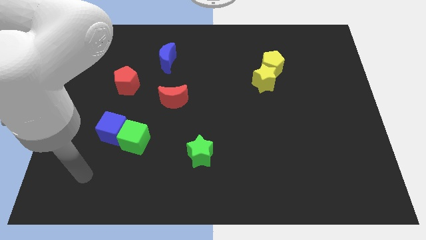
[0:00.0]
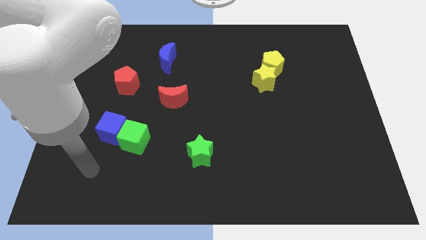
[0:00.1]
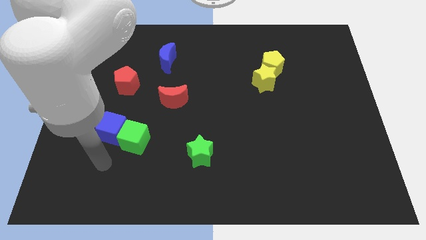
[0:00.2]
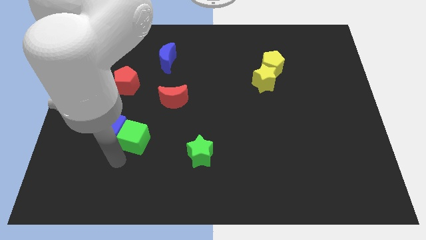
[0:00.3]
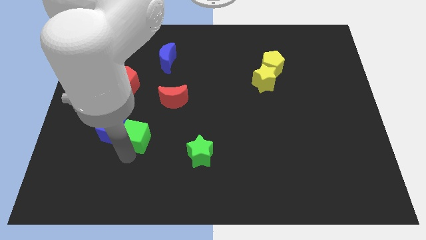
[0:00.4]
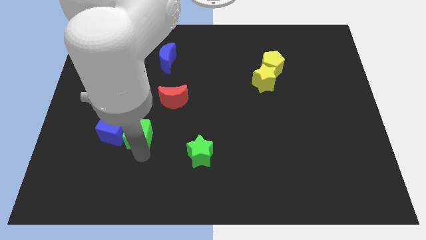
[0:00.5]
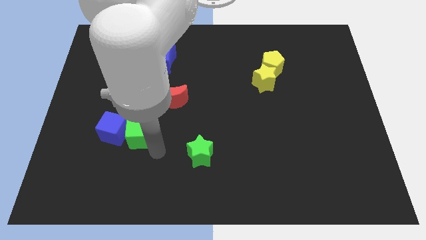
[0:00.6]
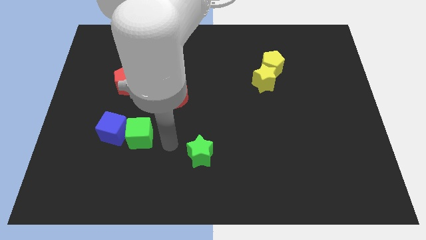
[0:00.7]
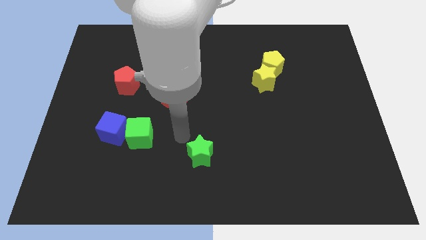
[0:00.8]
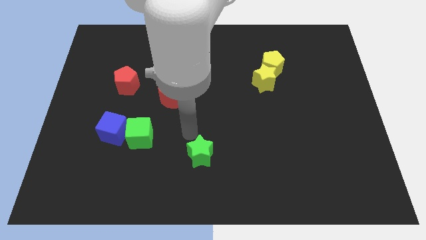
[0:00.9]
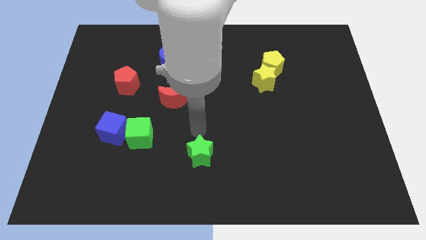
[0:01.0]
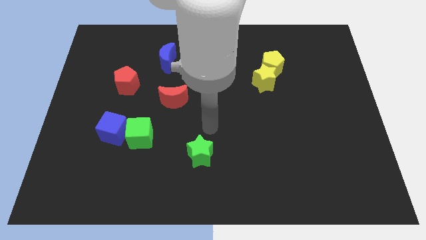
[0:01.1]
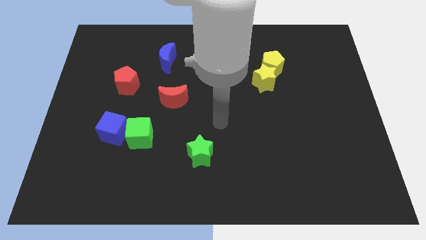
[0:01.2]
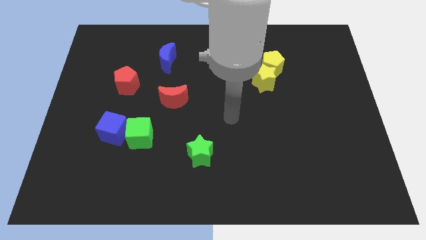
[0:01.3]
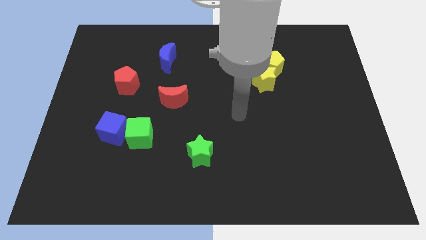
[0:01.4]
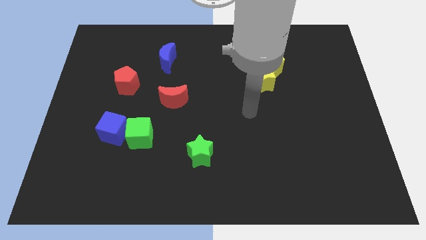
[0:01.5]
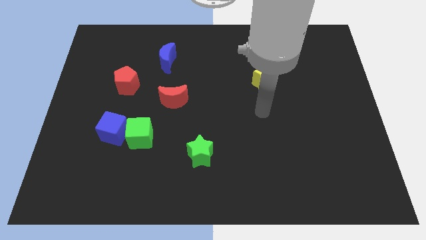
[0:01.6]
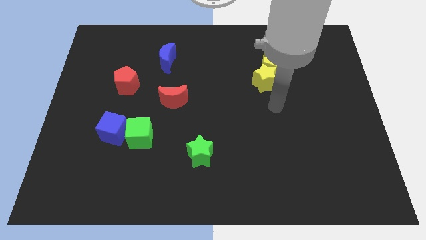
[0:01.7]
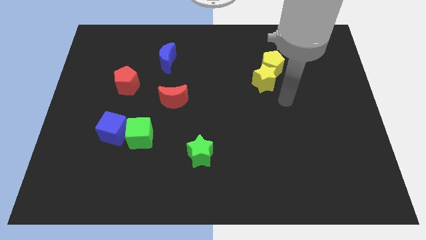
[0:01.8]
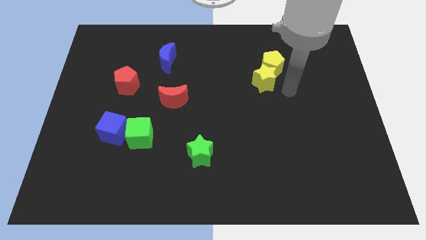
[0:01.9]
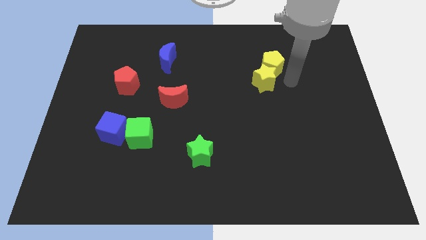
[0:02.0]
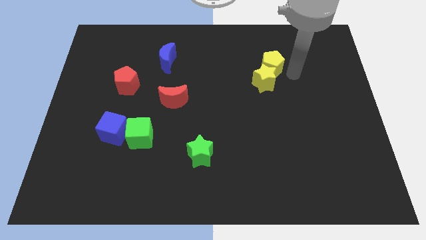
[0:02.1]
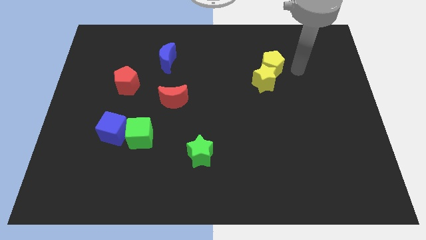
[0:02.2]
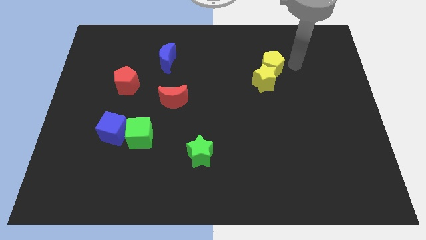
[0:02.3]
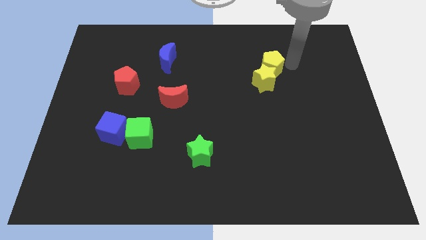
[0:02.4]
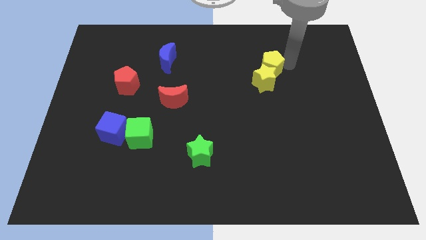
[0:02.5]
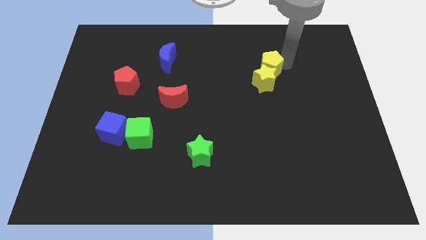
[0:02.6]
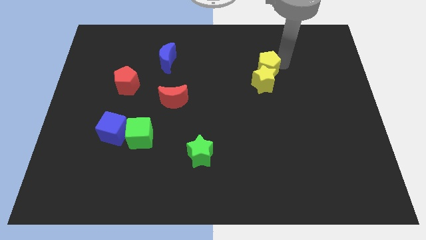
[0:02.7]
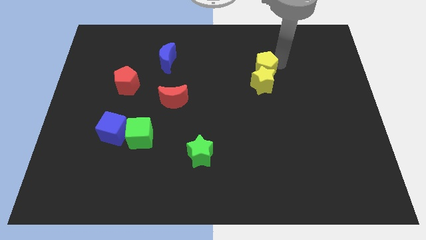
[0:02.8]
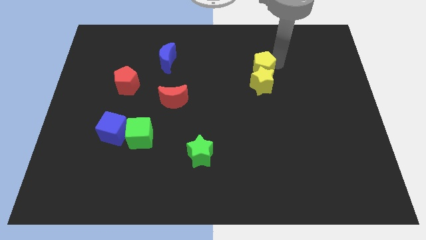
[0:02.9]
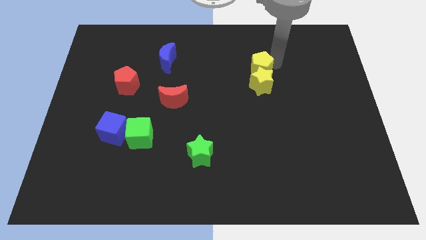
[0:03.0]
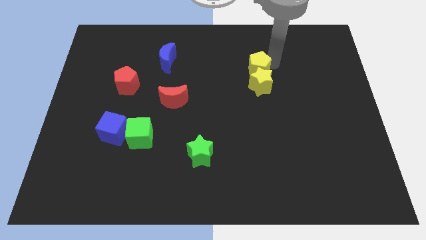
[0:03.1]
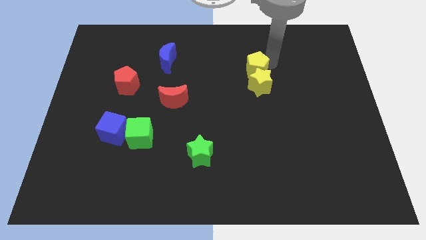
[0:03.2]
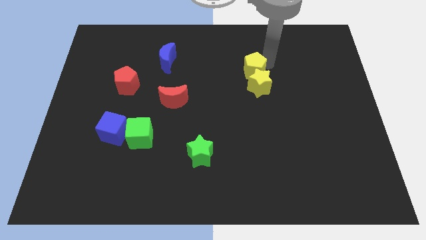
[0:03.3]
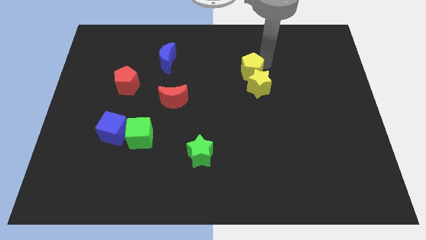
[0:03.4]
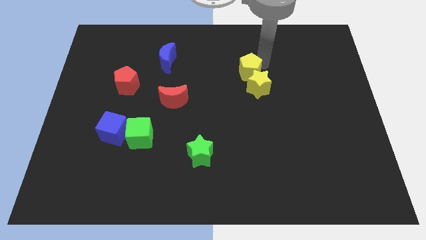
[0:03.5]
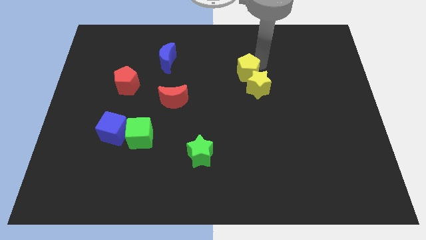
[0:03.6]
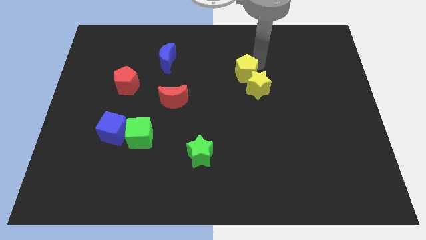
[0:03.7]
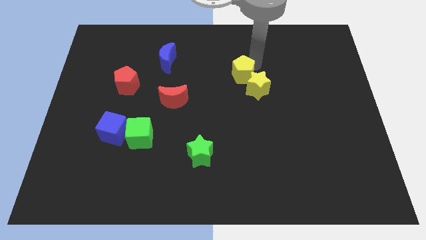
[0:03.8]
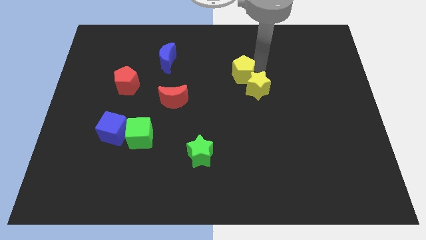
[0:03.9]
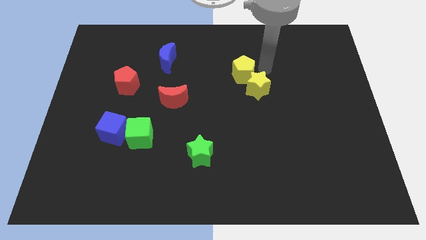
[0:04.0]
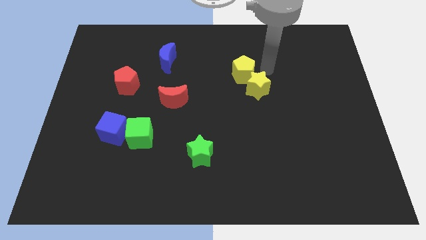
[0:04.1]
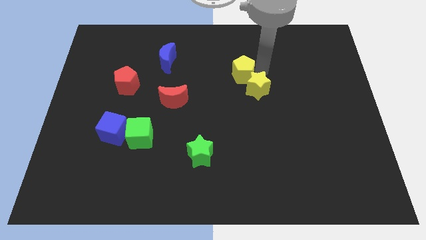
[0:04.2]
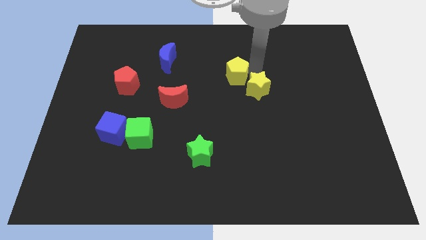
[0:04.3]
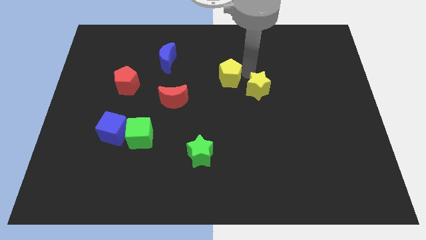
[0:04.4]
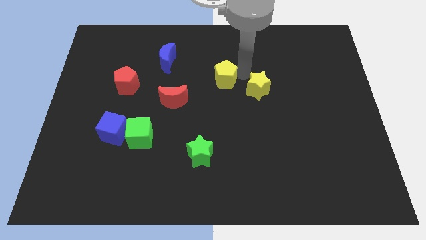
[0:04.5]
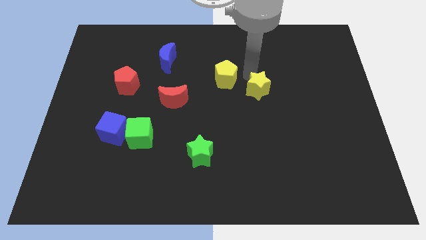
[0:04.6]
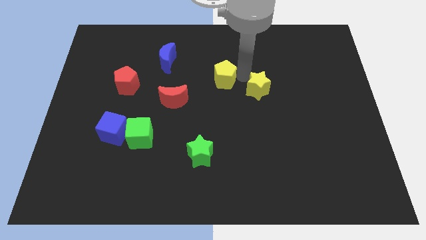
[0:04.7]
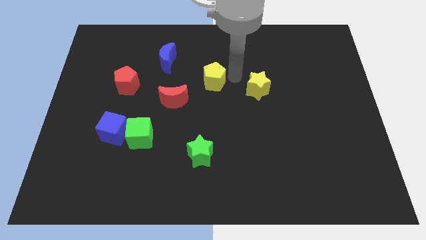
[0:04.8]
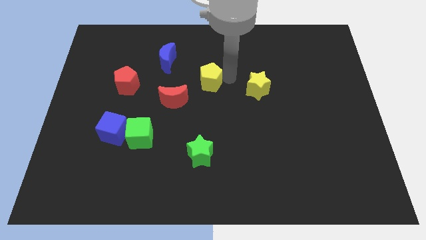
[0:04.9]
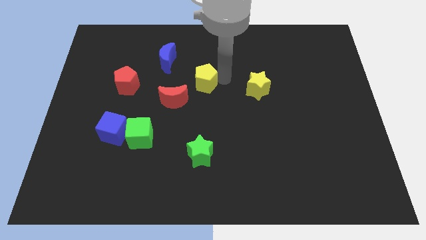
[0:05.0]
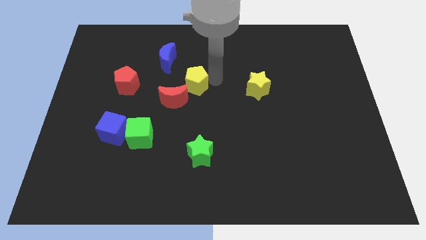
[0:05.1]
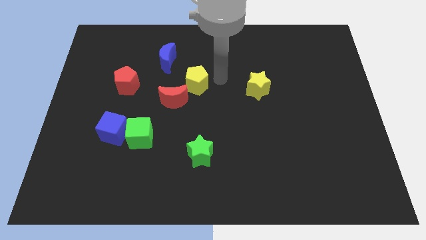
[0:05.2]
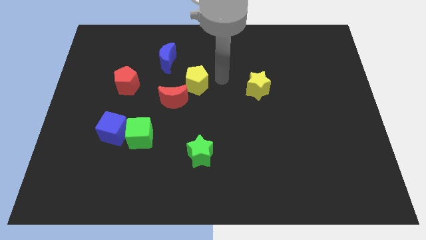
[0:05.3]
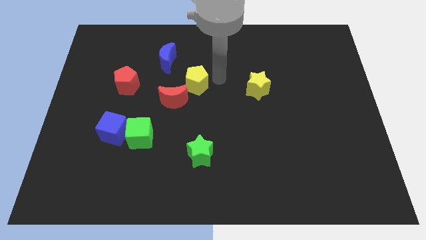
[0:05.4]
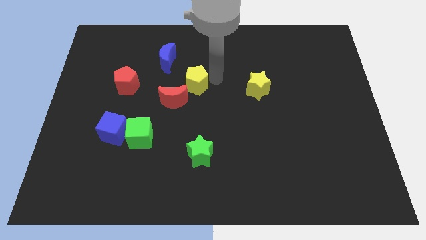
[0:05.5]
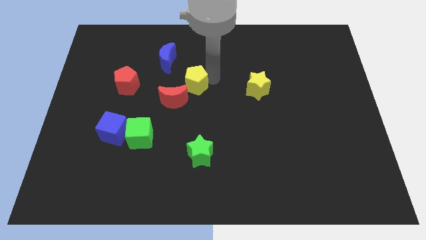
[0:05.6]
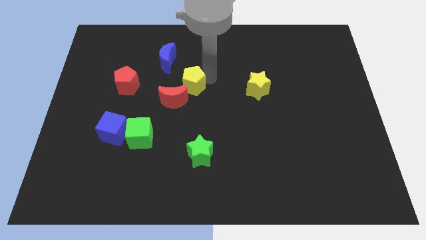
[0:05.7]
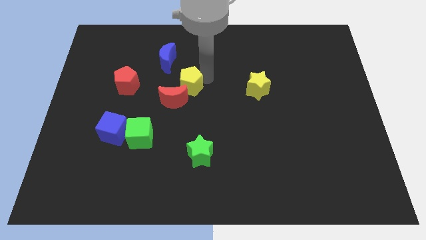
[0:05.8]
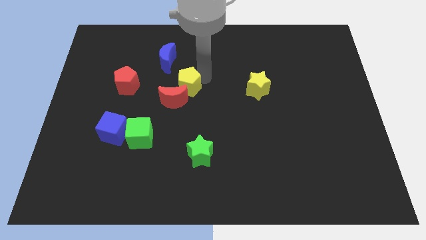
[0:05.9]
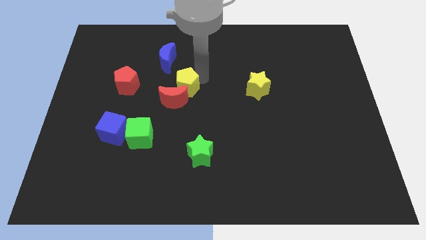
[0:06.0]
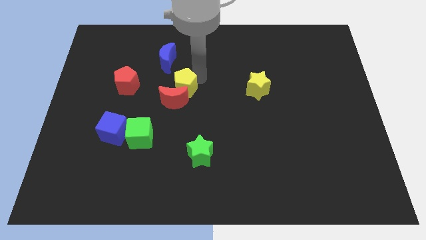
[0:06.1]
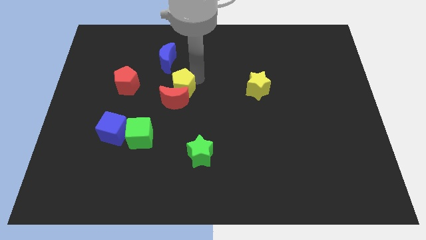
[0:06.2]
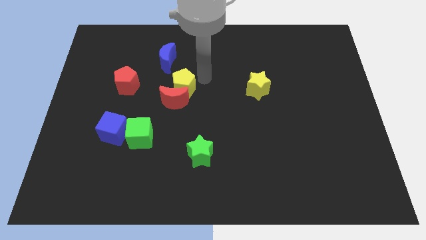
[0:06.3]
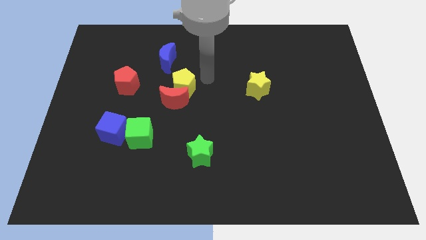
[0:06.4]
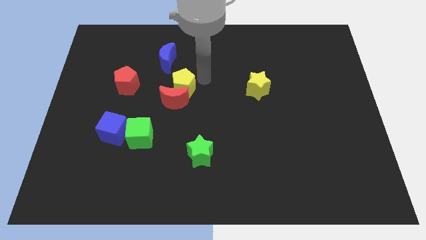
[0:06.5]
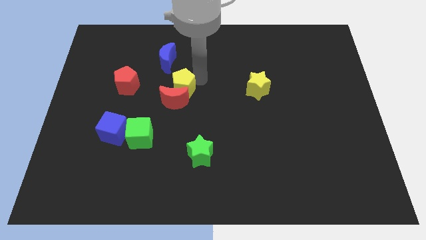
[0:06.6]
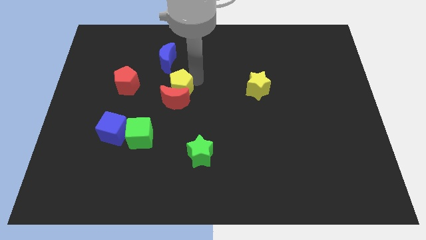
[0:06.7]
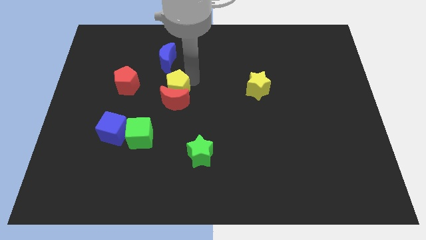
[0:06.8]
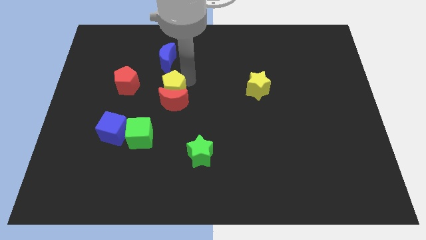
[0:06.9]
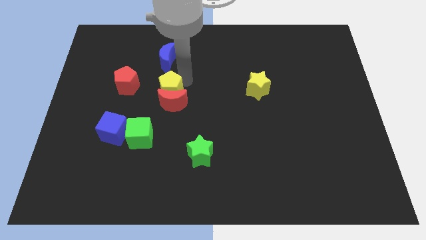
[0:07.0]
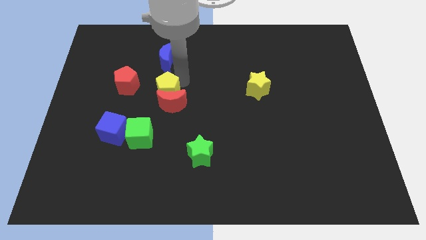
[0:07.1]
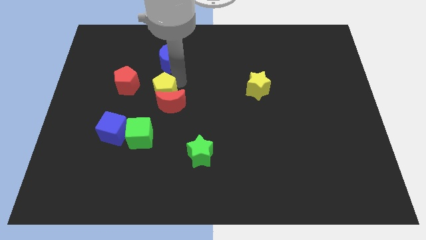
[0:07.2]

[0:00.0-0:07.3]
put the yellow pentagon to the top side of the green cube

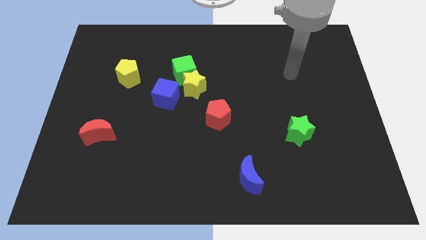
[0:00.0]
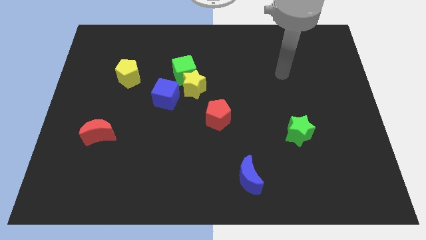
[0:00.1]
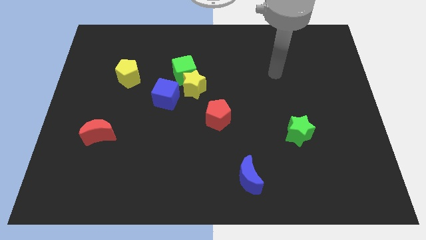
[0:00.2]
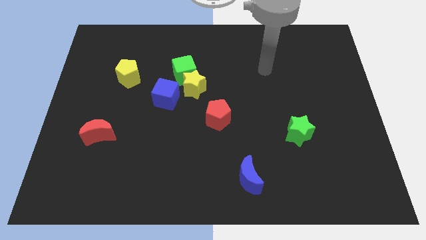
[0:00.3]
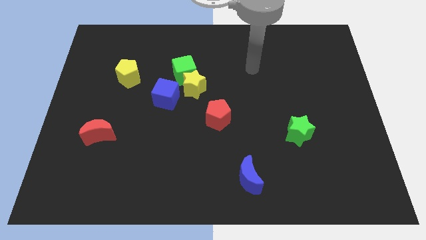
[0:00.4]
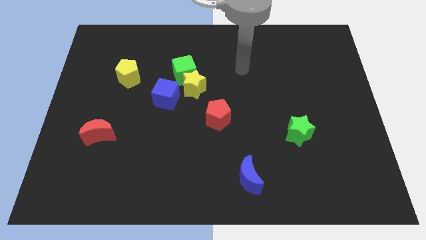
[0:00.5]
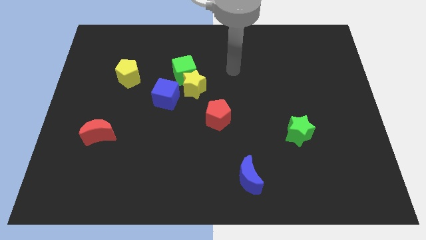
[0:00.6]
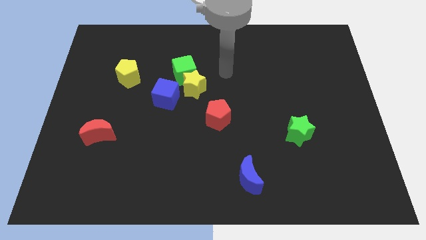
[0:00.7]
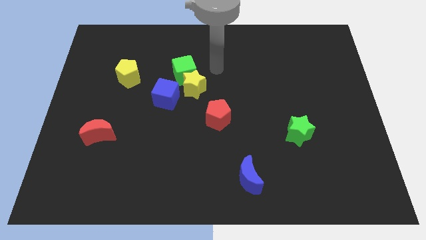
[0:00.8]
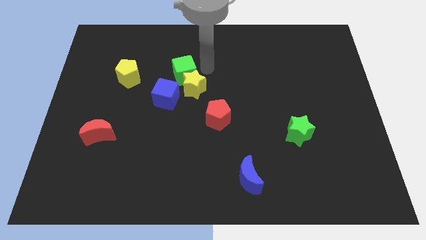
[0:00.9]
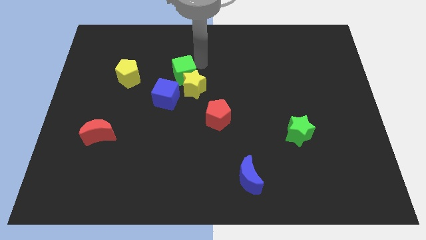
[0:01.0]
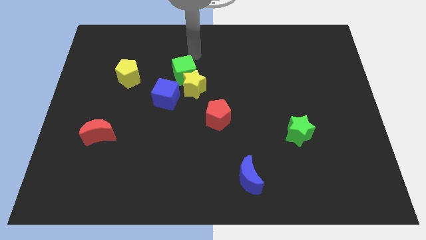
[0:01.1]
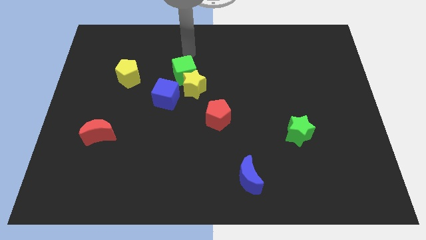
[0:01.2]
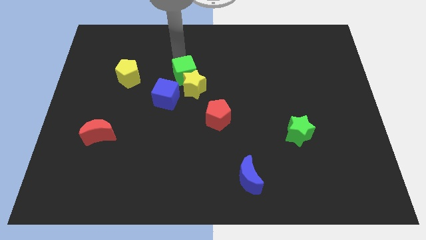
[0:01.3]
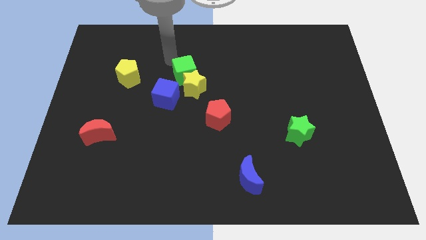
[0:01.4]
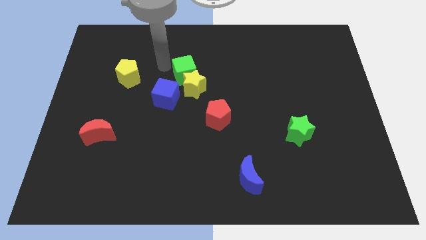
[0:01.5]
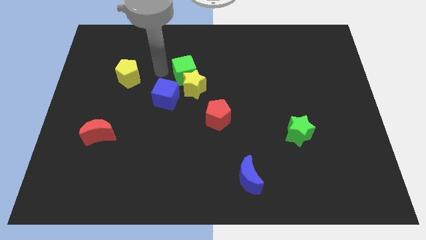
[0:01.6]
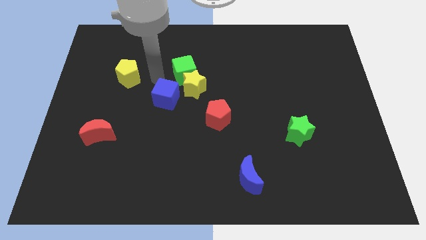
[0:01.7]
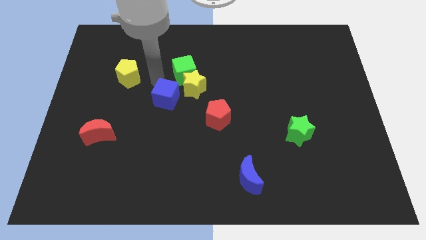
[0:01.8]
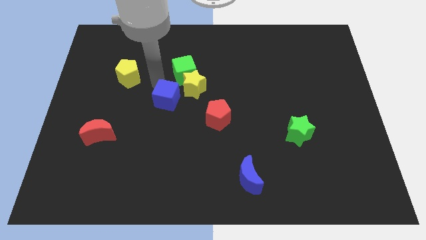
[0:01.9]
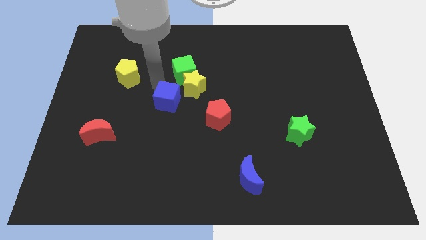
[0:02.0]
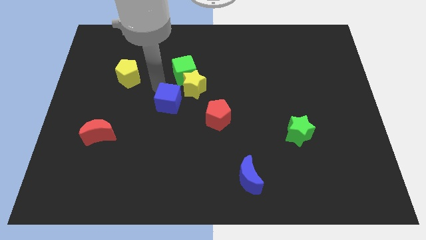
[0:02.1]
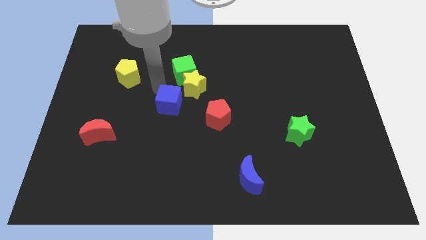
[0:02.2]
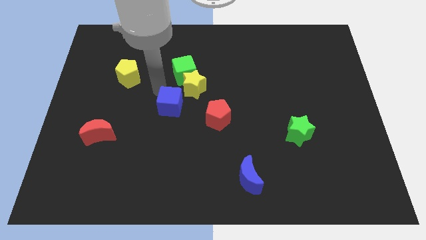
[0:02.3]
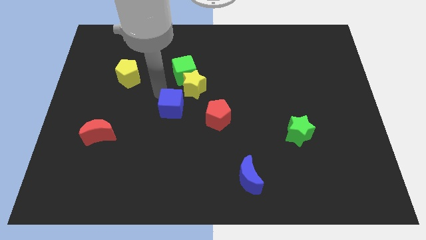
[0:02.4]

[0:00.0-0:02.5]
move the blue cube below the yellow star
